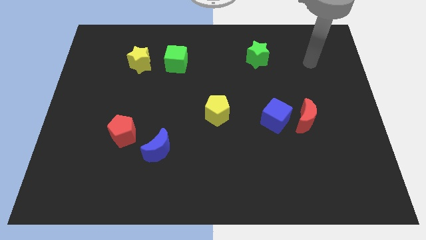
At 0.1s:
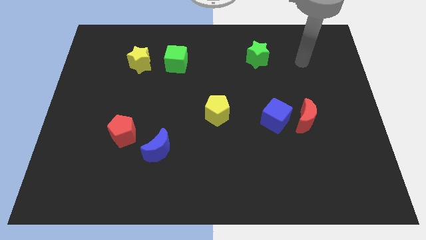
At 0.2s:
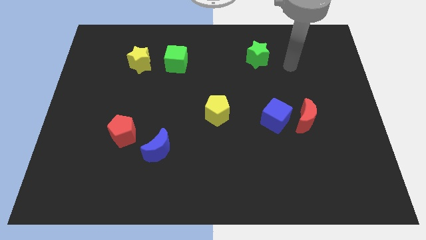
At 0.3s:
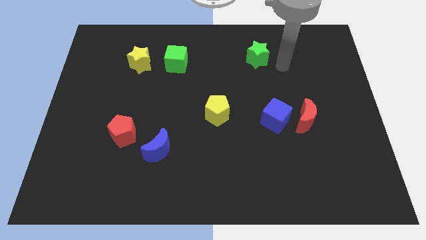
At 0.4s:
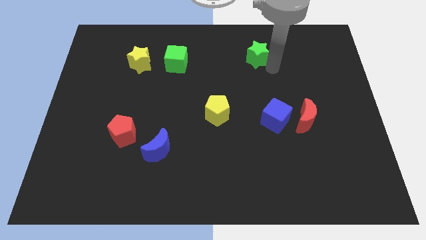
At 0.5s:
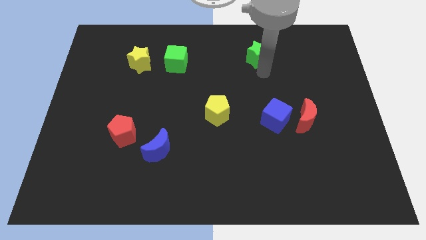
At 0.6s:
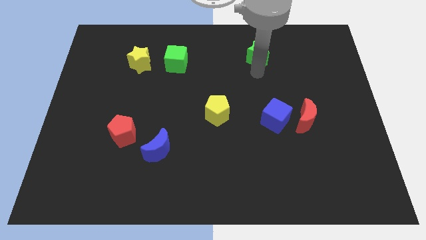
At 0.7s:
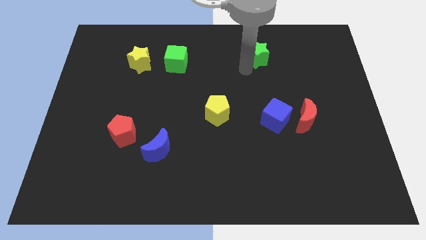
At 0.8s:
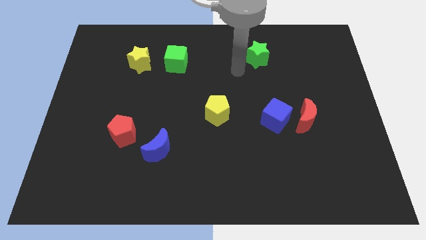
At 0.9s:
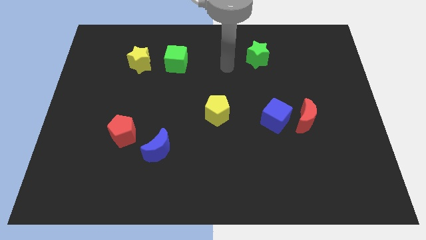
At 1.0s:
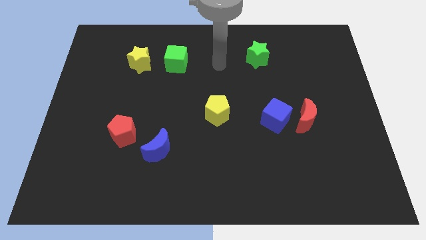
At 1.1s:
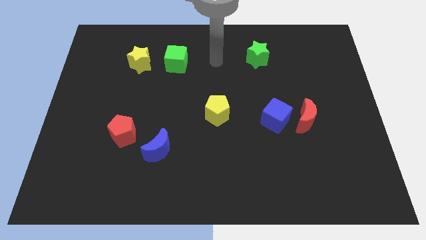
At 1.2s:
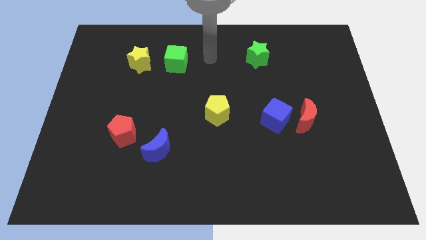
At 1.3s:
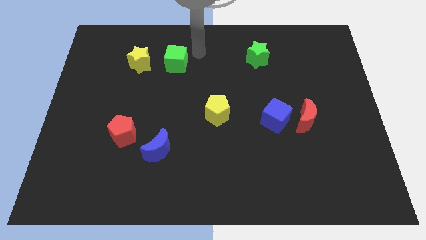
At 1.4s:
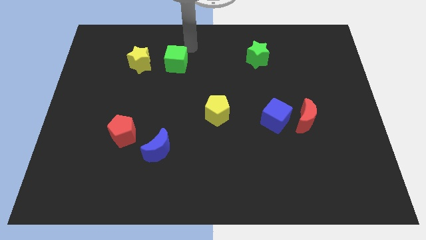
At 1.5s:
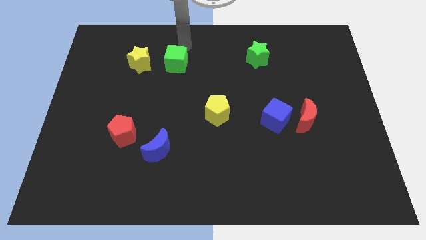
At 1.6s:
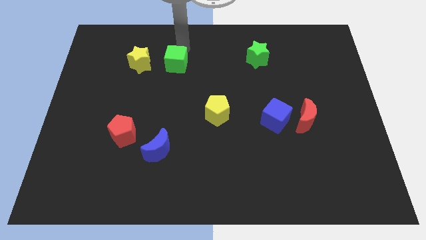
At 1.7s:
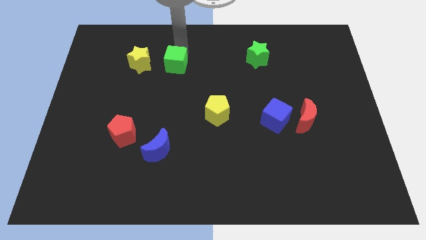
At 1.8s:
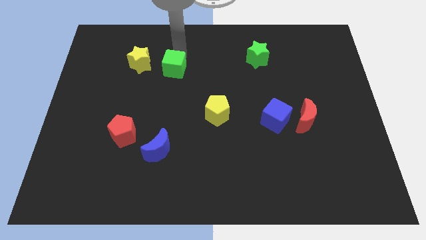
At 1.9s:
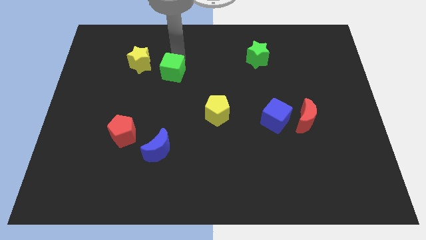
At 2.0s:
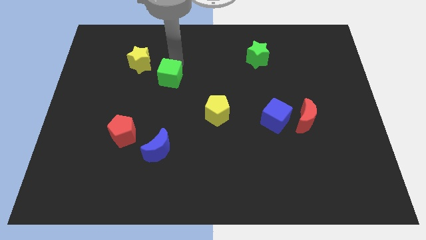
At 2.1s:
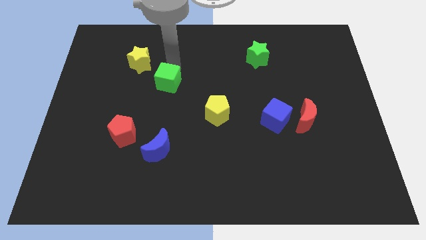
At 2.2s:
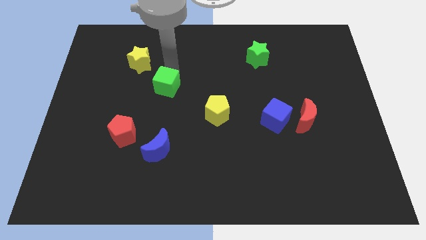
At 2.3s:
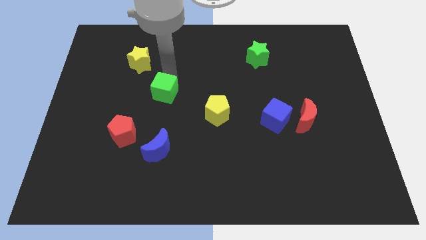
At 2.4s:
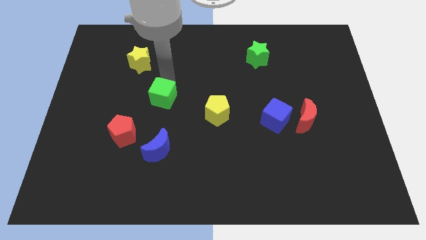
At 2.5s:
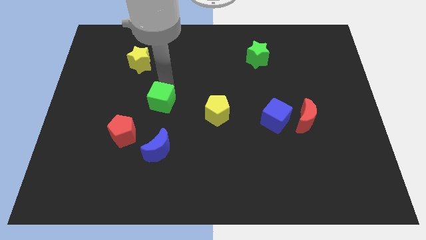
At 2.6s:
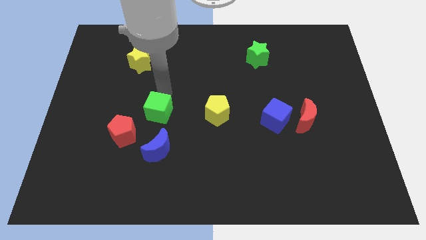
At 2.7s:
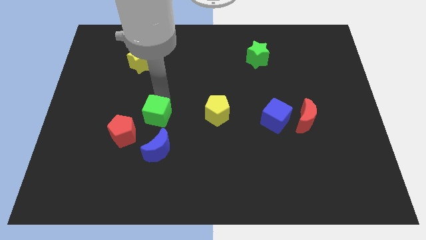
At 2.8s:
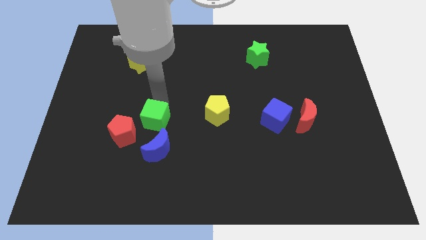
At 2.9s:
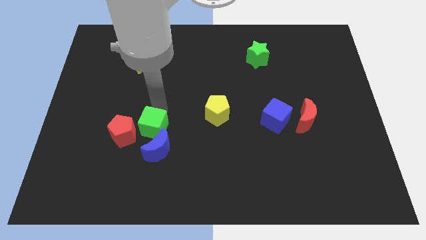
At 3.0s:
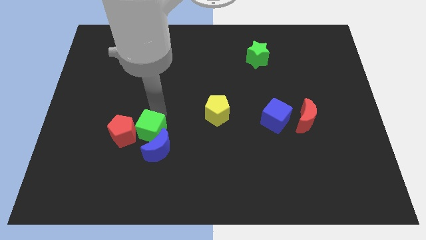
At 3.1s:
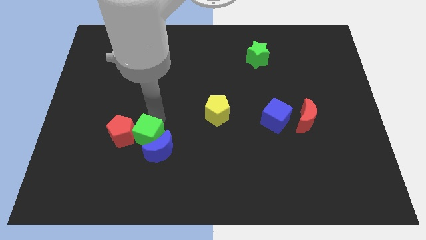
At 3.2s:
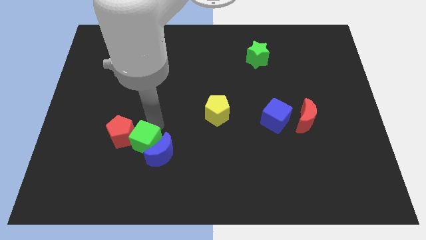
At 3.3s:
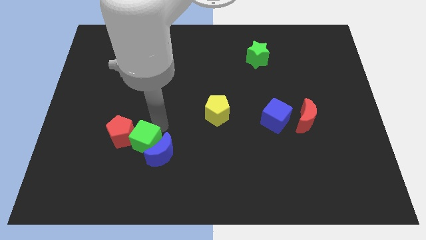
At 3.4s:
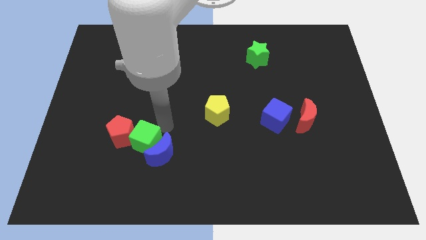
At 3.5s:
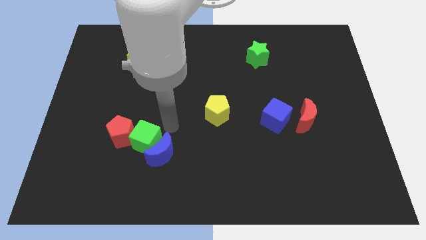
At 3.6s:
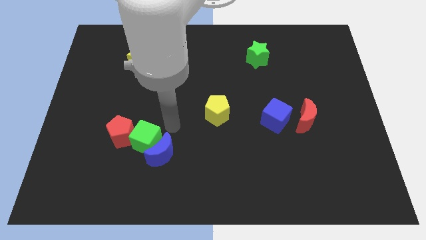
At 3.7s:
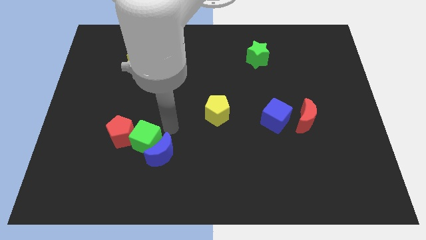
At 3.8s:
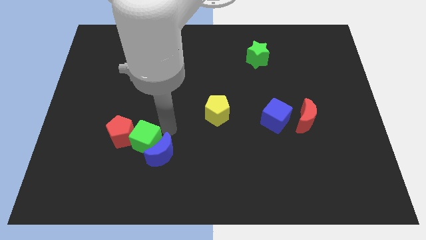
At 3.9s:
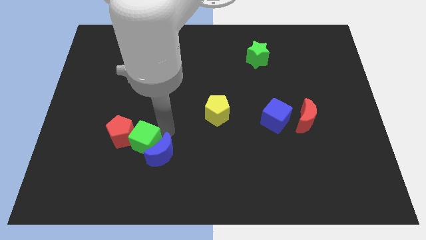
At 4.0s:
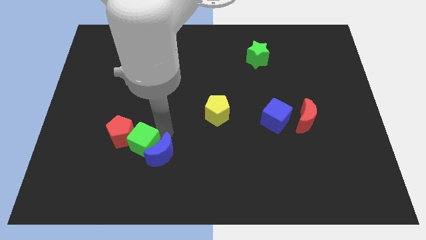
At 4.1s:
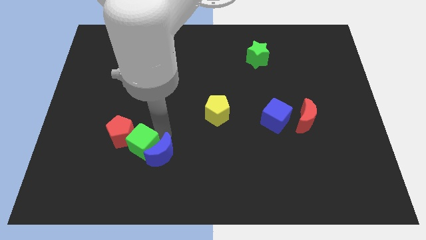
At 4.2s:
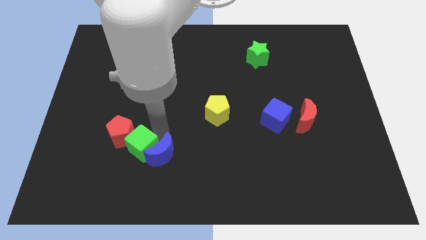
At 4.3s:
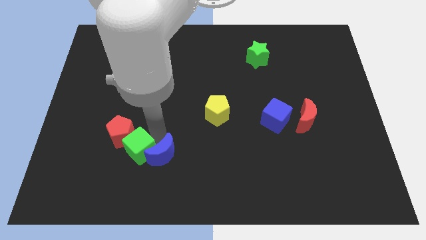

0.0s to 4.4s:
slide the green cube to the bottom of the red pentagon

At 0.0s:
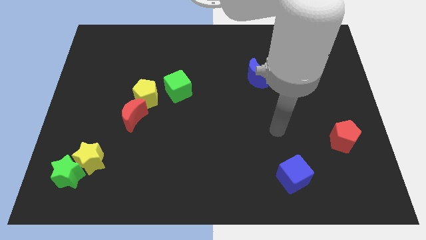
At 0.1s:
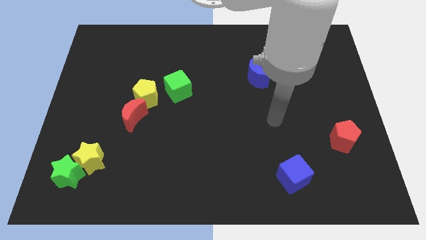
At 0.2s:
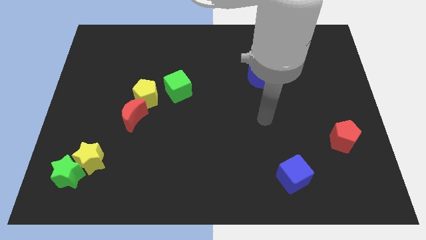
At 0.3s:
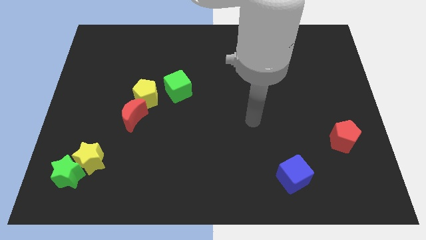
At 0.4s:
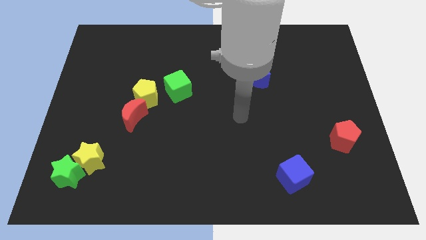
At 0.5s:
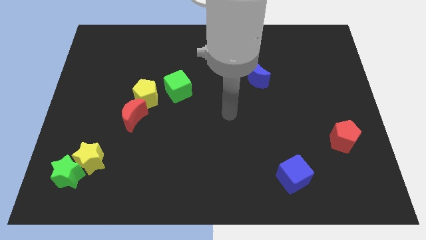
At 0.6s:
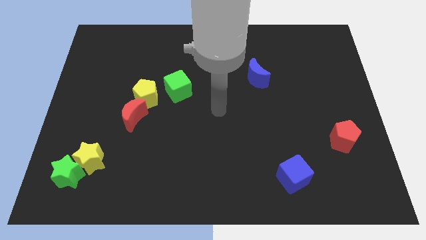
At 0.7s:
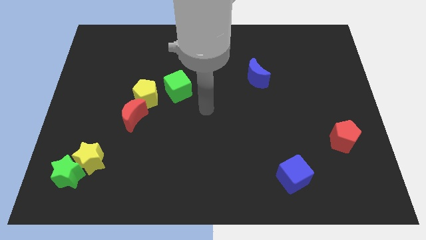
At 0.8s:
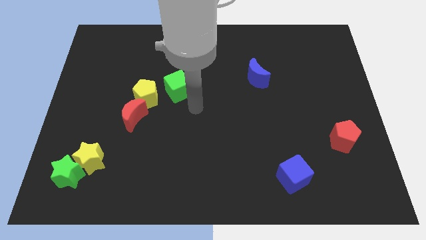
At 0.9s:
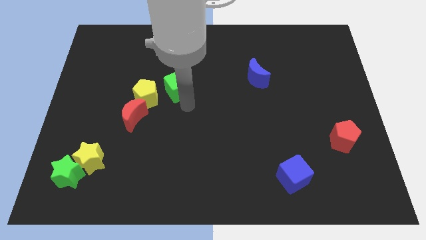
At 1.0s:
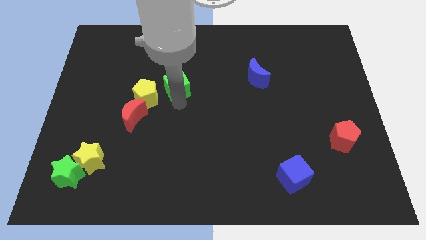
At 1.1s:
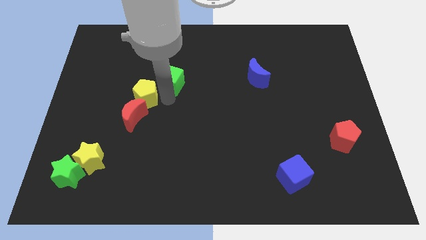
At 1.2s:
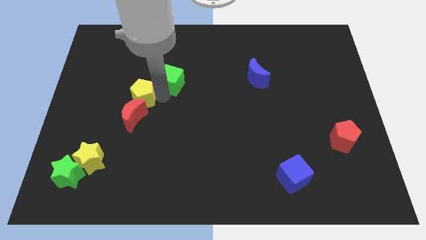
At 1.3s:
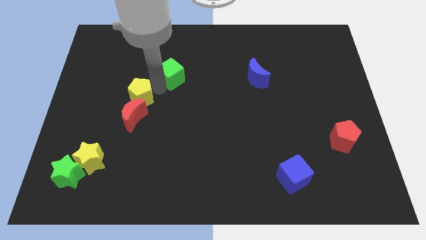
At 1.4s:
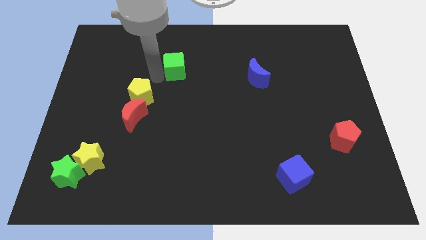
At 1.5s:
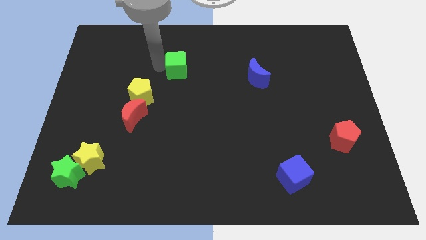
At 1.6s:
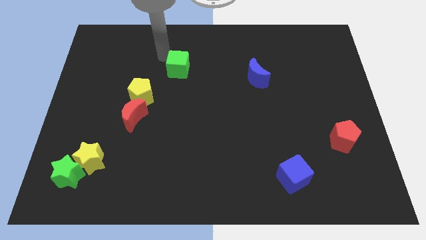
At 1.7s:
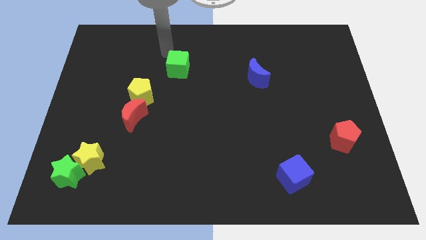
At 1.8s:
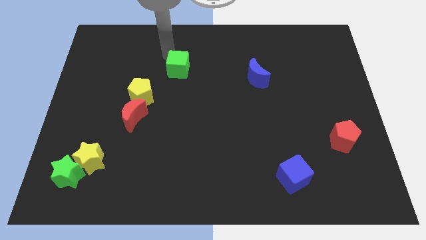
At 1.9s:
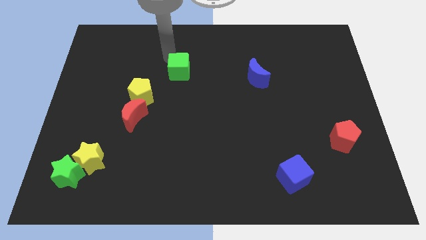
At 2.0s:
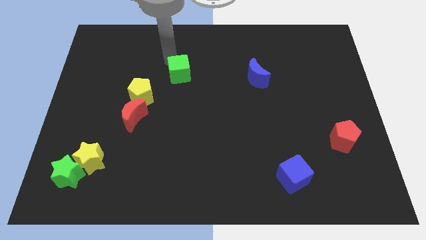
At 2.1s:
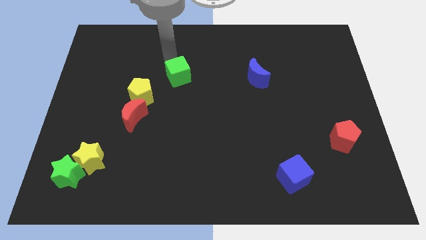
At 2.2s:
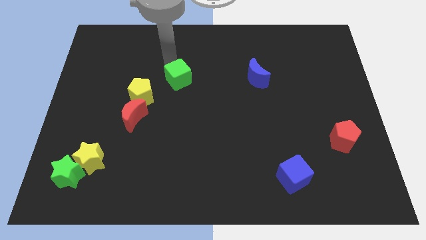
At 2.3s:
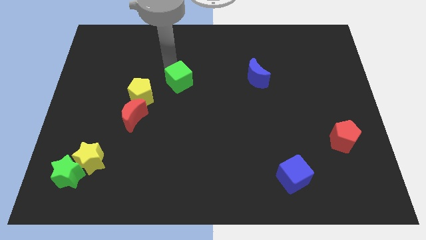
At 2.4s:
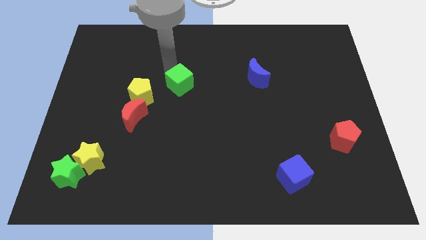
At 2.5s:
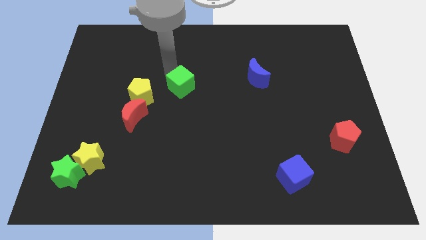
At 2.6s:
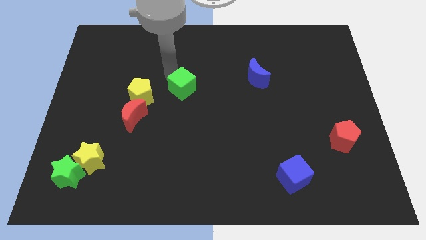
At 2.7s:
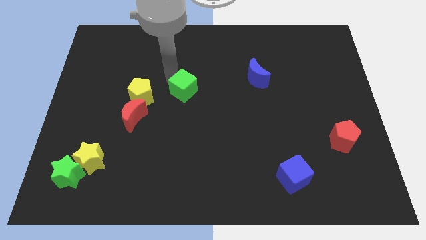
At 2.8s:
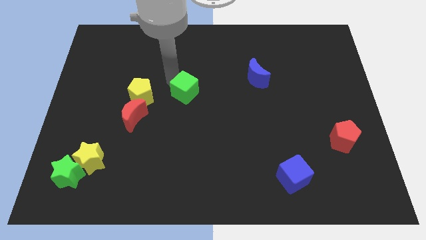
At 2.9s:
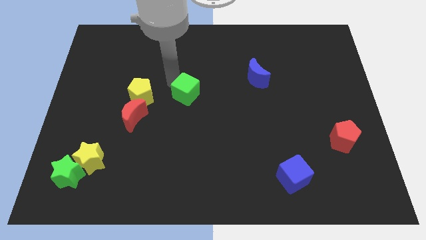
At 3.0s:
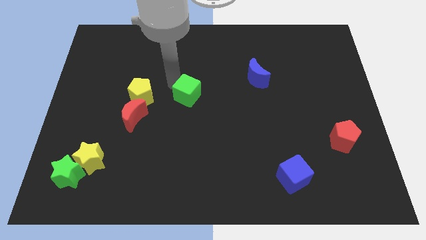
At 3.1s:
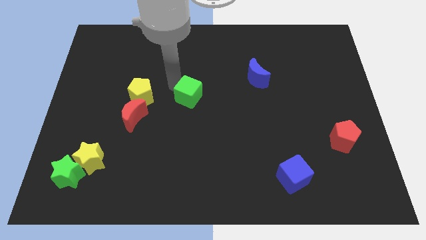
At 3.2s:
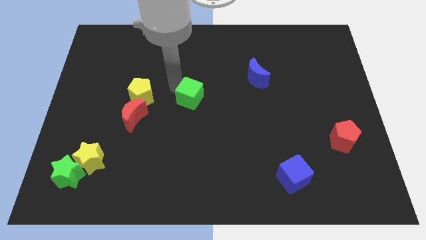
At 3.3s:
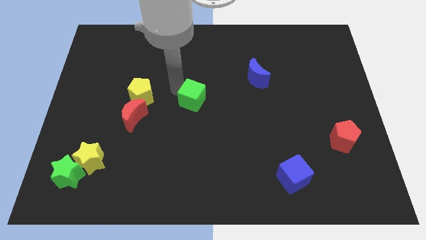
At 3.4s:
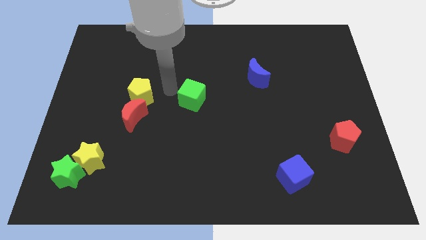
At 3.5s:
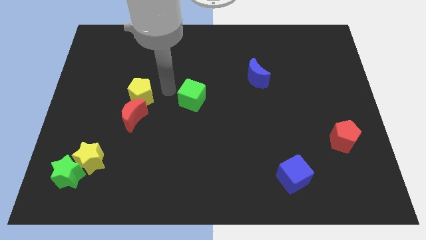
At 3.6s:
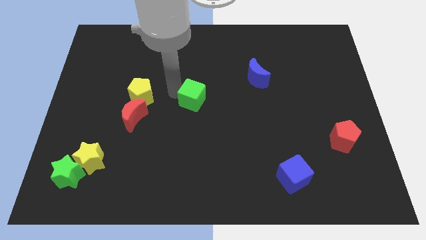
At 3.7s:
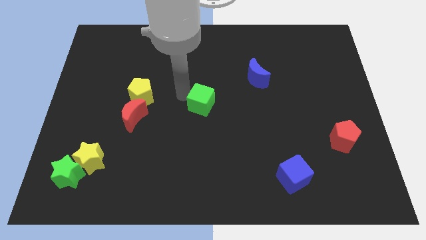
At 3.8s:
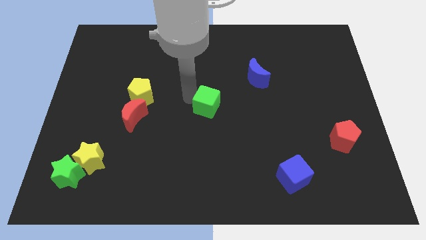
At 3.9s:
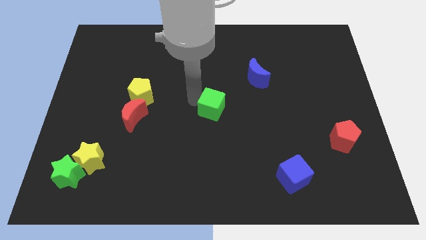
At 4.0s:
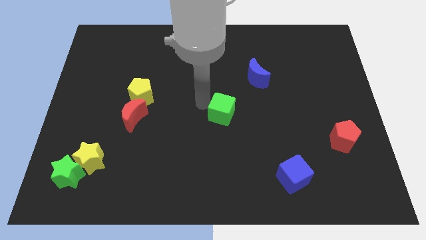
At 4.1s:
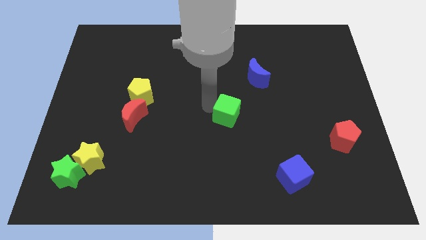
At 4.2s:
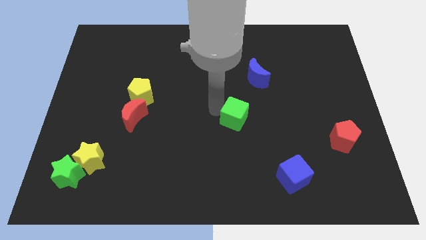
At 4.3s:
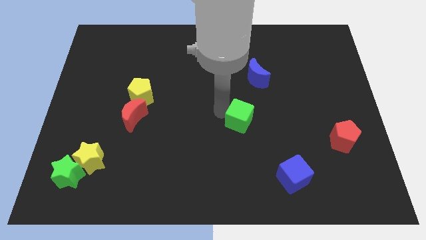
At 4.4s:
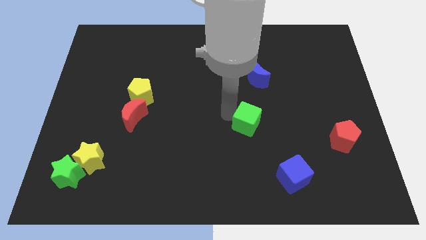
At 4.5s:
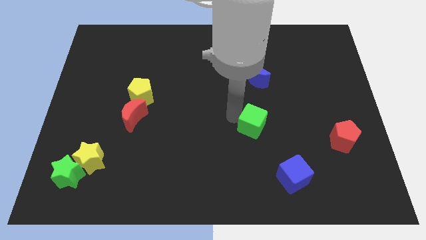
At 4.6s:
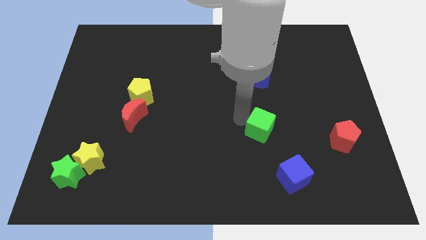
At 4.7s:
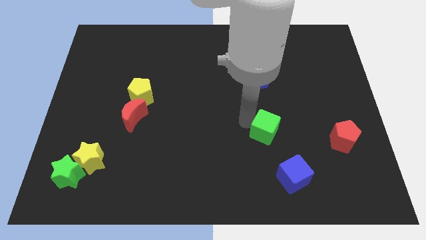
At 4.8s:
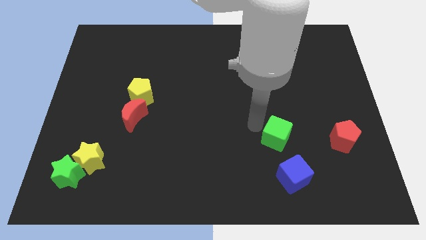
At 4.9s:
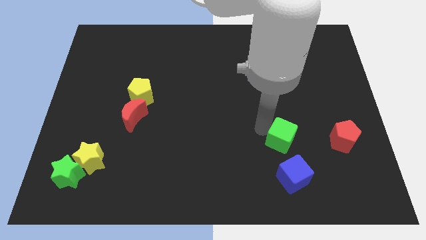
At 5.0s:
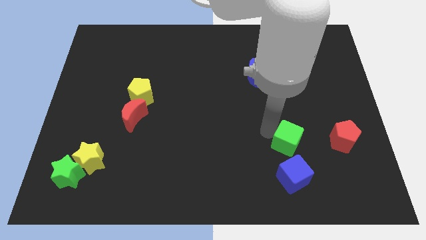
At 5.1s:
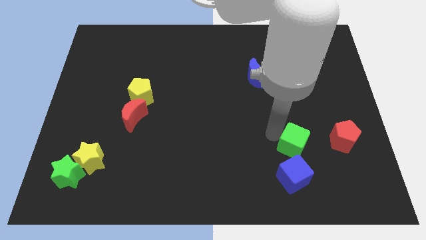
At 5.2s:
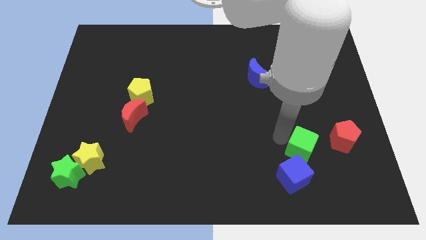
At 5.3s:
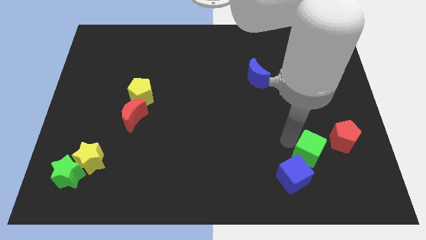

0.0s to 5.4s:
push the green cube to the bottom left side of the red pentagon
